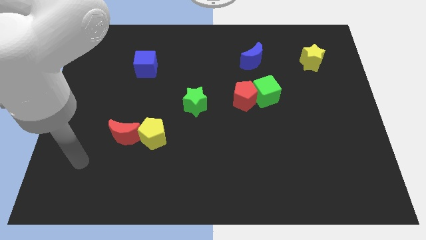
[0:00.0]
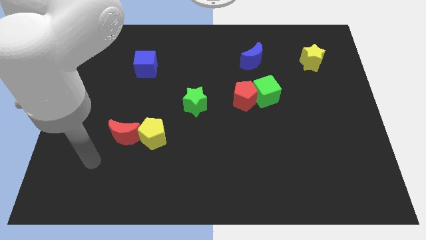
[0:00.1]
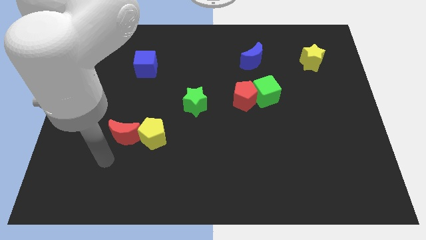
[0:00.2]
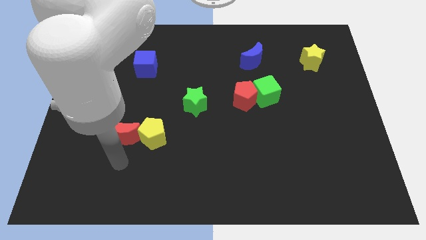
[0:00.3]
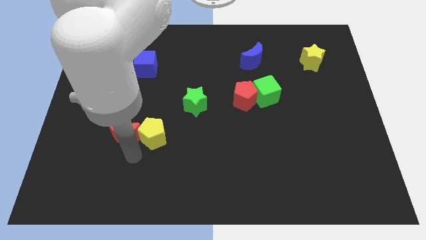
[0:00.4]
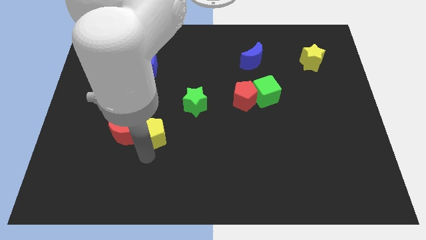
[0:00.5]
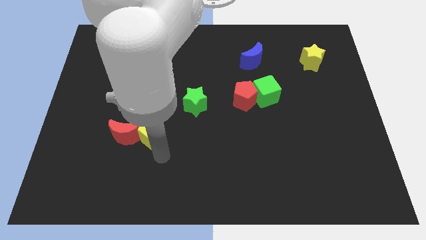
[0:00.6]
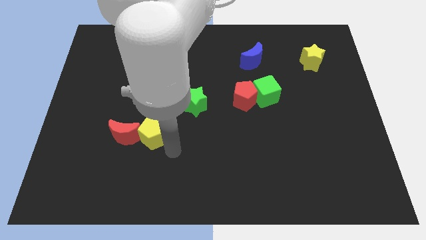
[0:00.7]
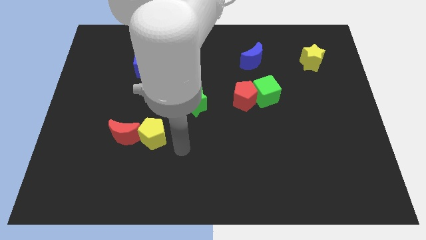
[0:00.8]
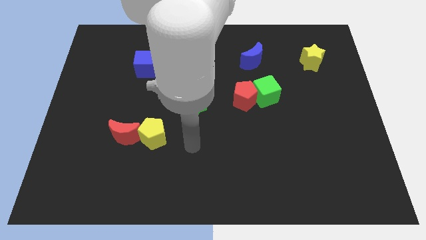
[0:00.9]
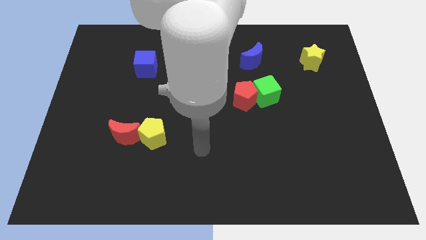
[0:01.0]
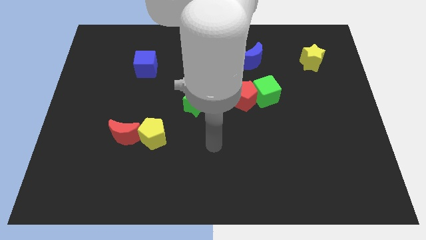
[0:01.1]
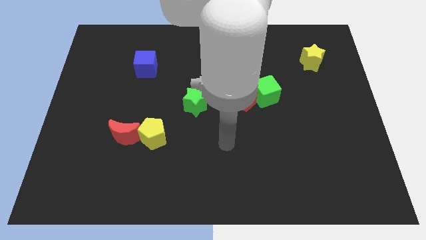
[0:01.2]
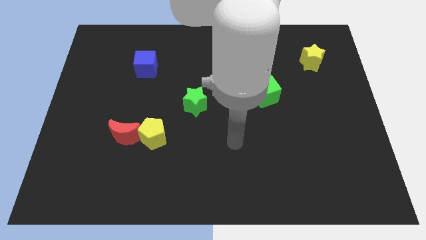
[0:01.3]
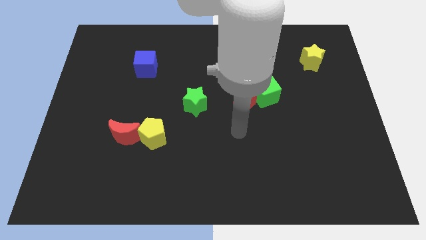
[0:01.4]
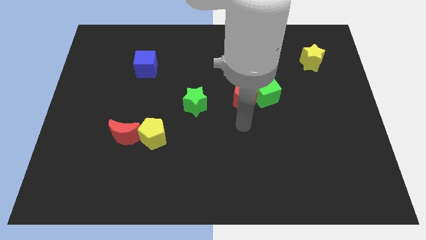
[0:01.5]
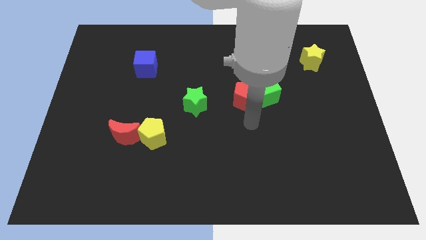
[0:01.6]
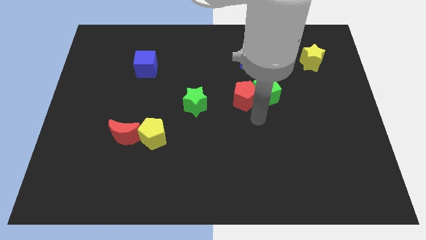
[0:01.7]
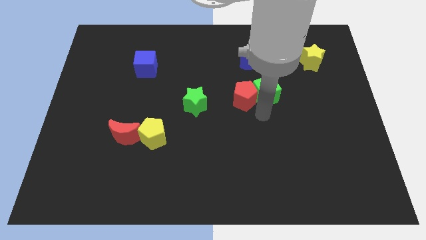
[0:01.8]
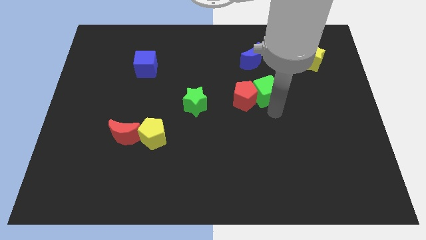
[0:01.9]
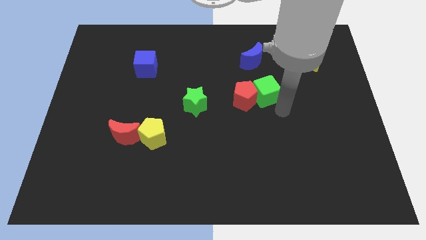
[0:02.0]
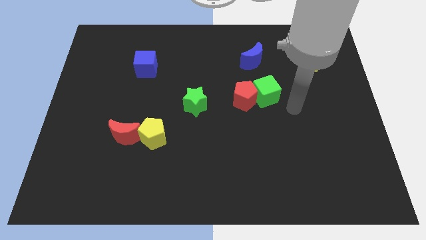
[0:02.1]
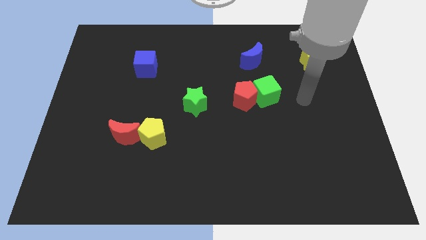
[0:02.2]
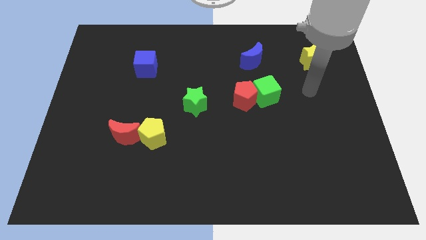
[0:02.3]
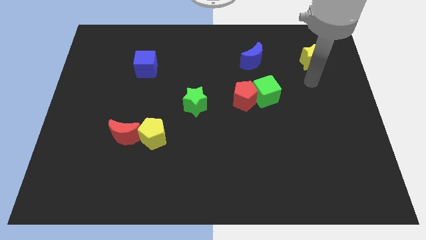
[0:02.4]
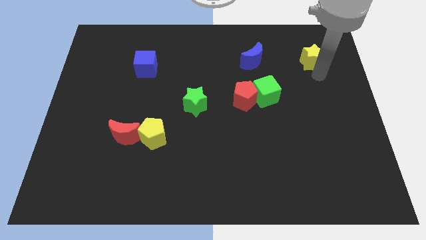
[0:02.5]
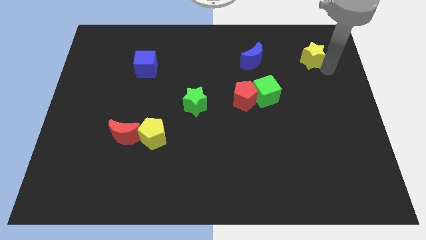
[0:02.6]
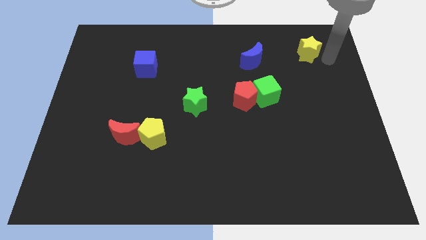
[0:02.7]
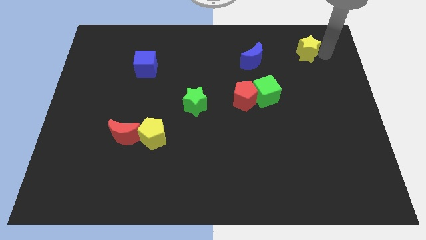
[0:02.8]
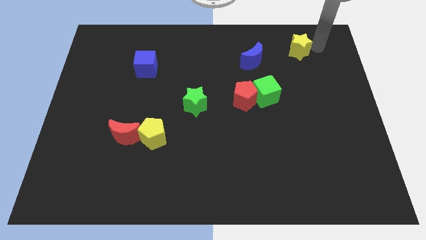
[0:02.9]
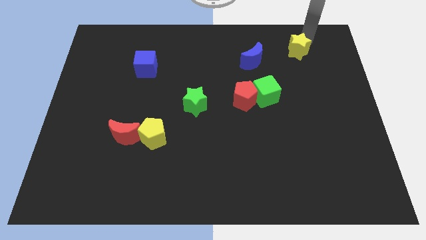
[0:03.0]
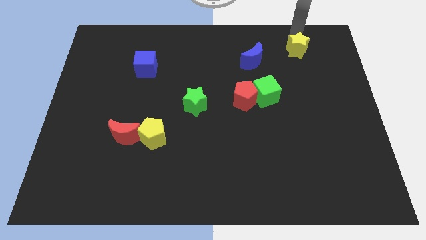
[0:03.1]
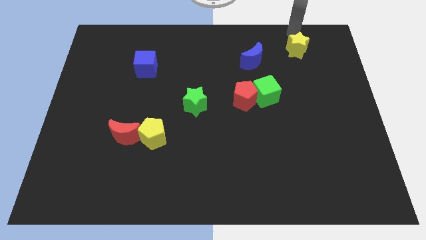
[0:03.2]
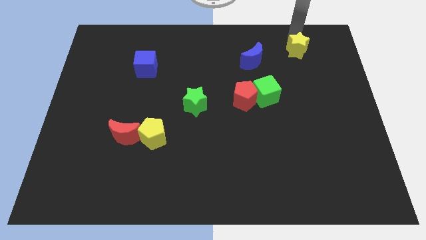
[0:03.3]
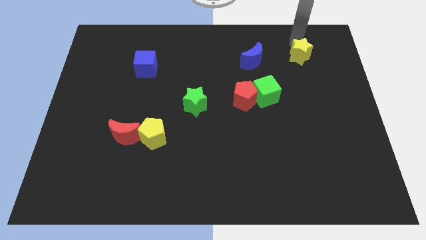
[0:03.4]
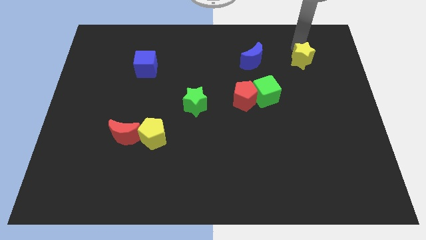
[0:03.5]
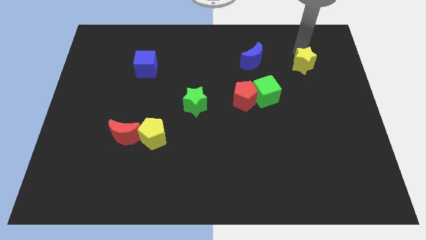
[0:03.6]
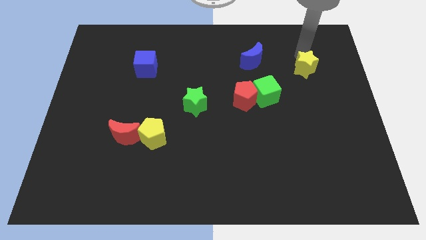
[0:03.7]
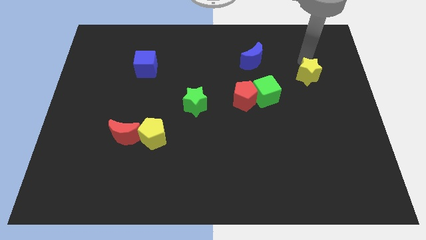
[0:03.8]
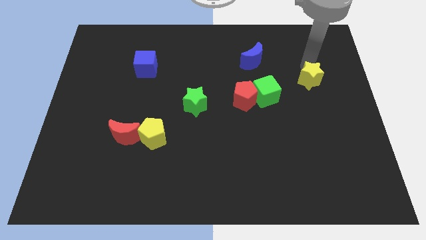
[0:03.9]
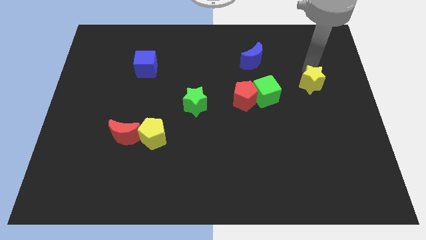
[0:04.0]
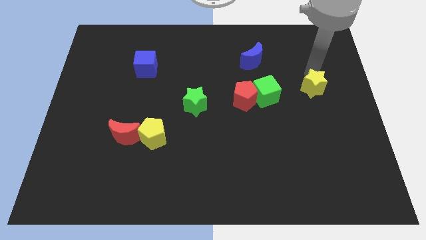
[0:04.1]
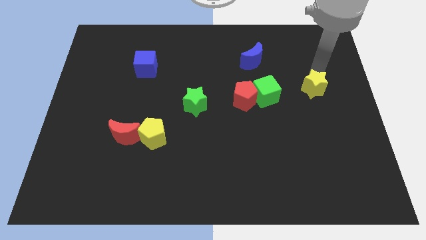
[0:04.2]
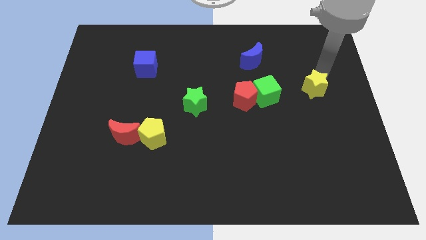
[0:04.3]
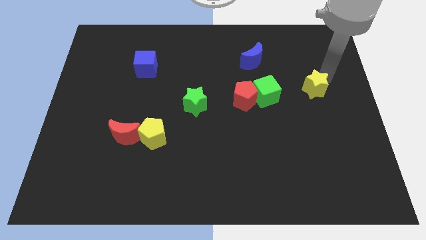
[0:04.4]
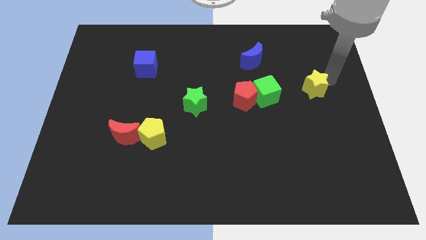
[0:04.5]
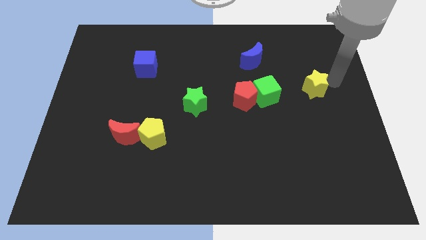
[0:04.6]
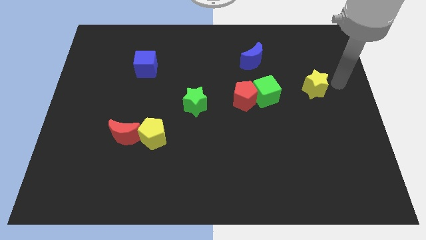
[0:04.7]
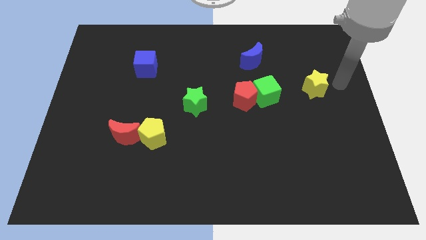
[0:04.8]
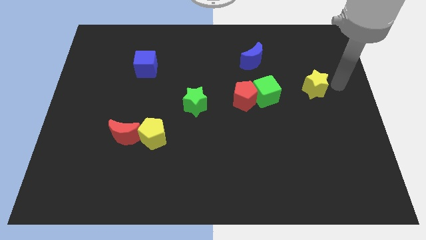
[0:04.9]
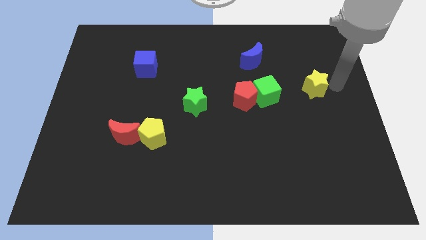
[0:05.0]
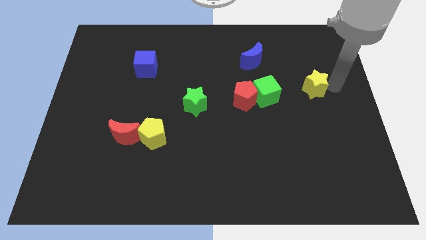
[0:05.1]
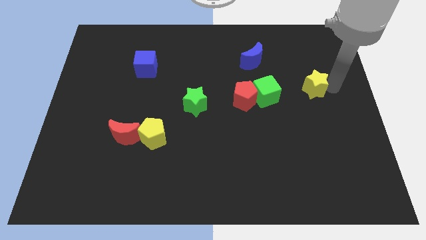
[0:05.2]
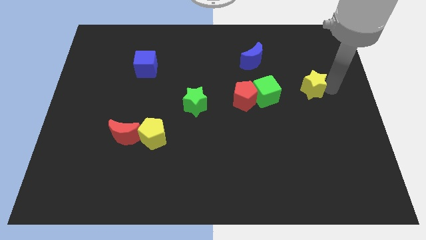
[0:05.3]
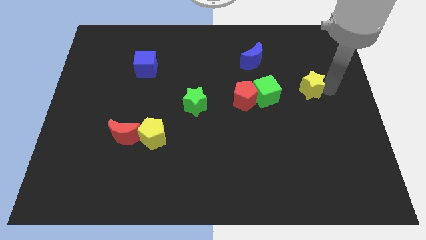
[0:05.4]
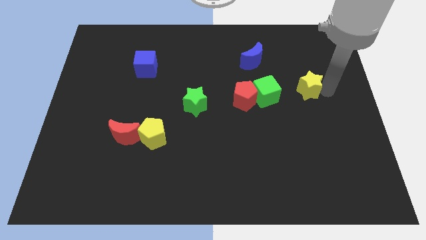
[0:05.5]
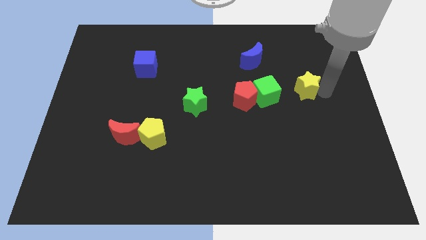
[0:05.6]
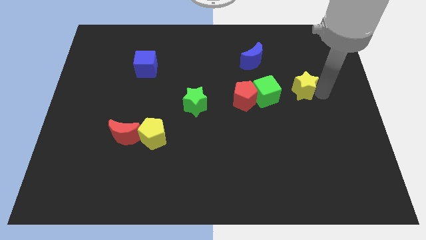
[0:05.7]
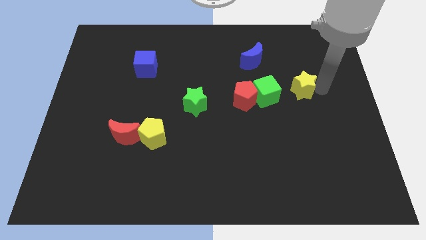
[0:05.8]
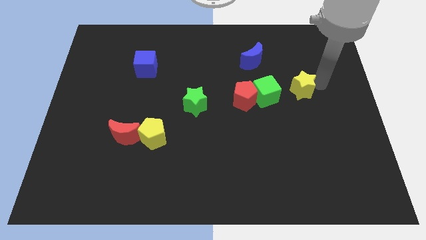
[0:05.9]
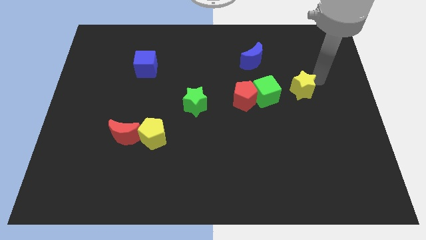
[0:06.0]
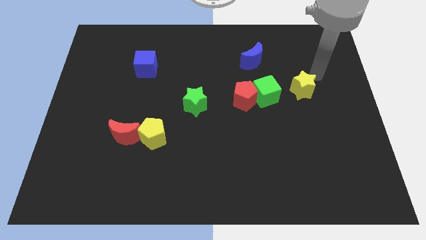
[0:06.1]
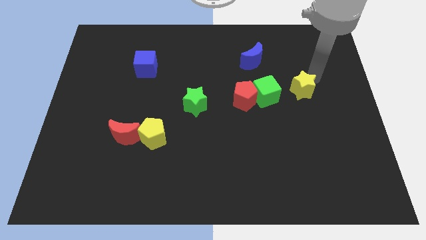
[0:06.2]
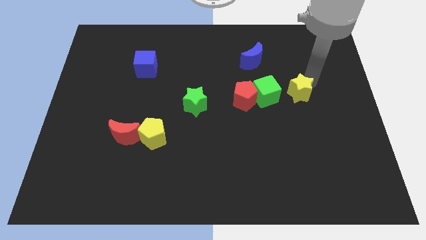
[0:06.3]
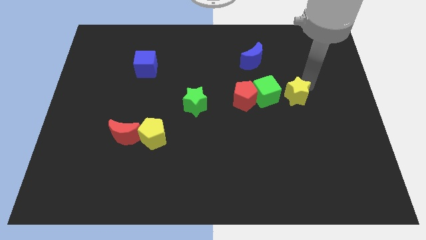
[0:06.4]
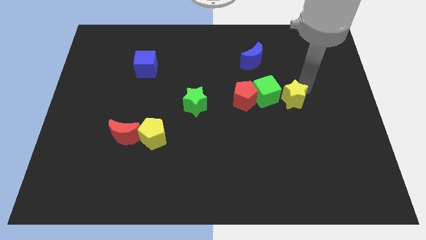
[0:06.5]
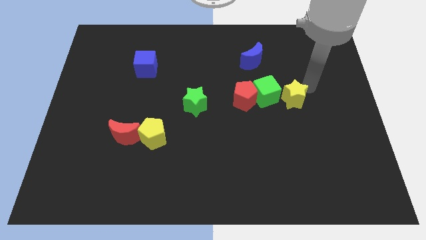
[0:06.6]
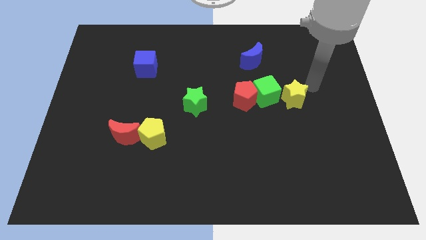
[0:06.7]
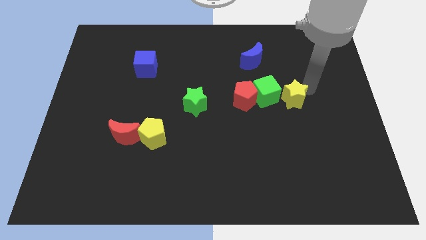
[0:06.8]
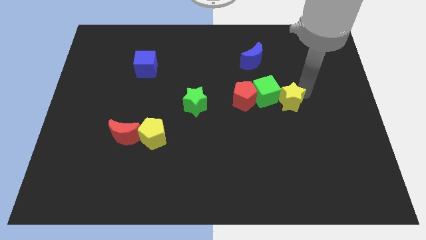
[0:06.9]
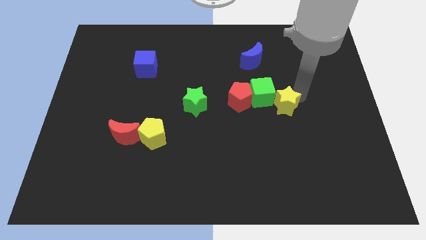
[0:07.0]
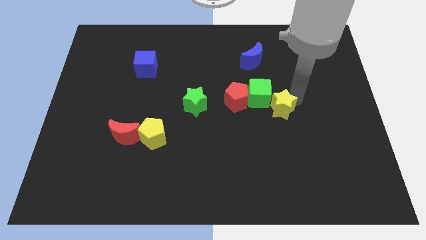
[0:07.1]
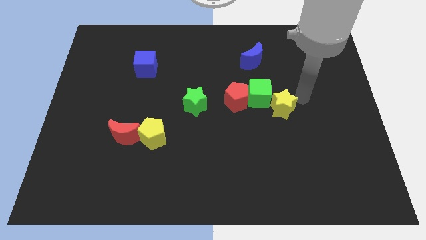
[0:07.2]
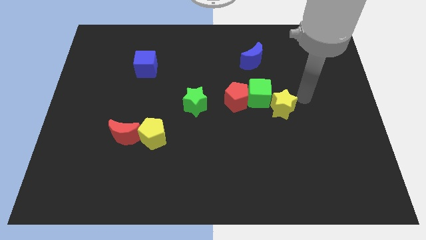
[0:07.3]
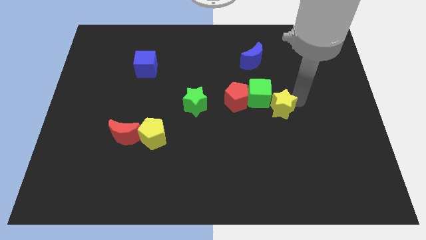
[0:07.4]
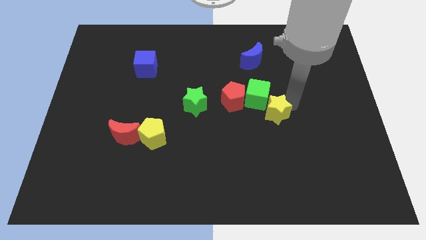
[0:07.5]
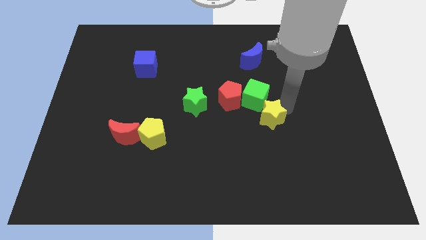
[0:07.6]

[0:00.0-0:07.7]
push the yellow star diagonally down and left
